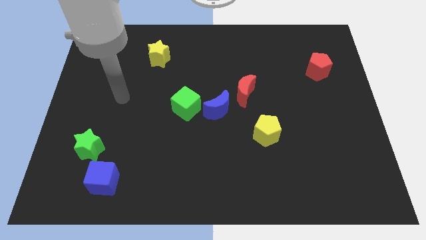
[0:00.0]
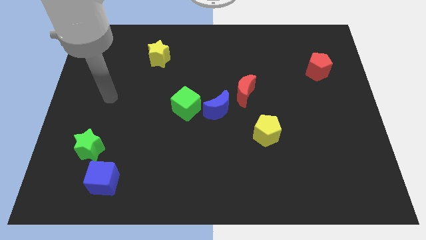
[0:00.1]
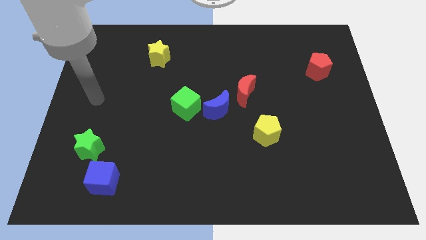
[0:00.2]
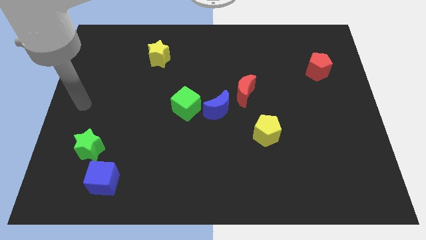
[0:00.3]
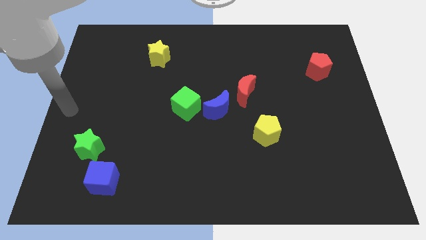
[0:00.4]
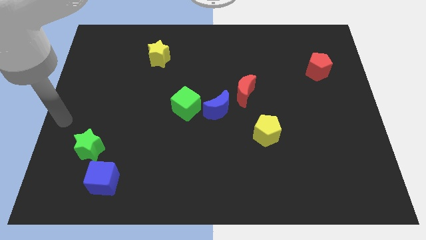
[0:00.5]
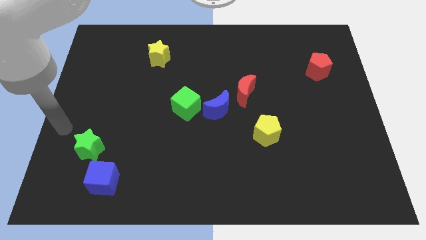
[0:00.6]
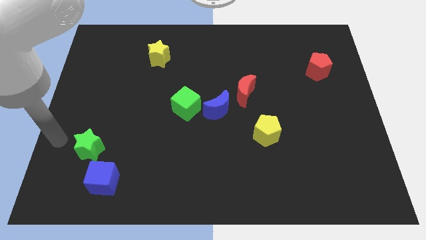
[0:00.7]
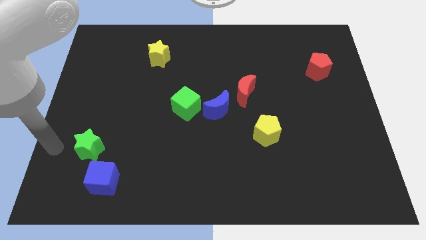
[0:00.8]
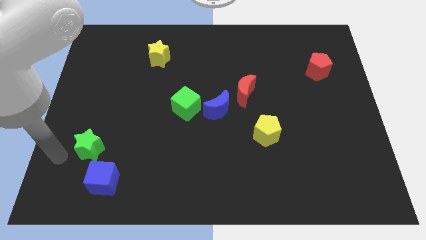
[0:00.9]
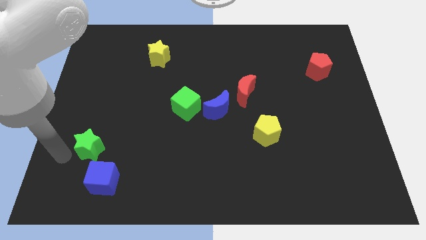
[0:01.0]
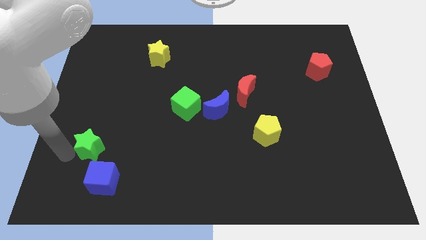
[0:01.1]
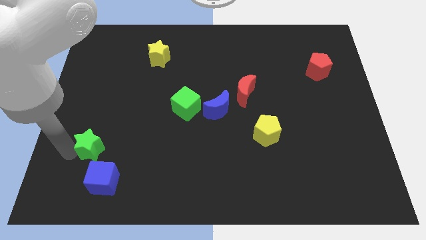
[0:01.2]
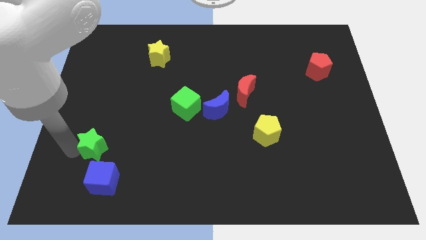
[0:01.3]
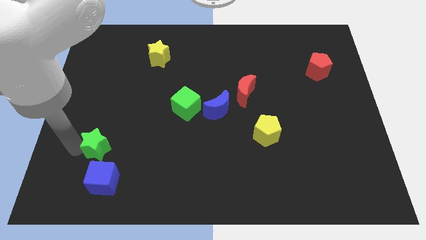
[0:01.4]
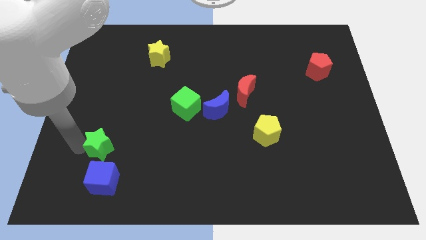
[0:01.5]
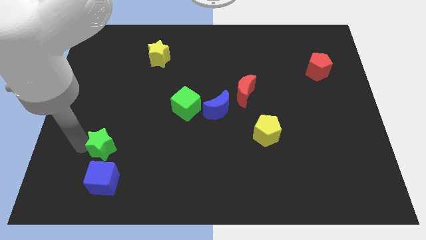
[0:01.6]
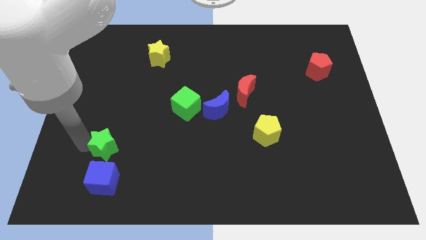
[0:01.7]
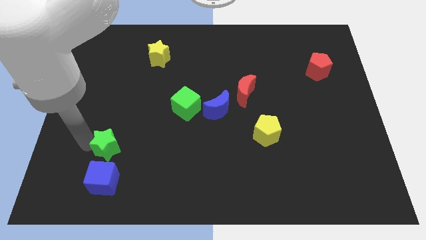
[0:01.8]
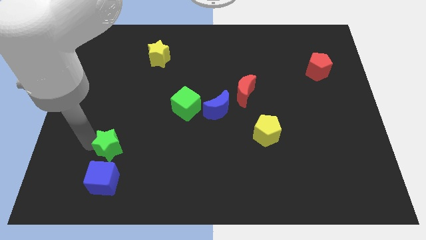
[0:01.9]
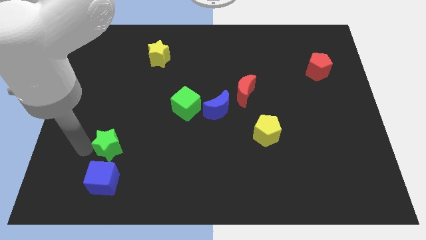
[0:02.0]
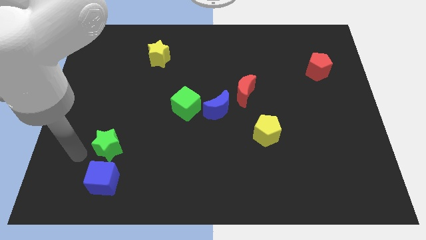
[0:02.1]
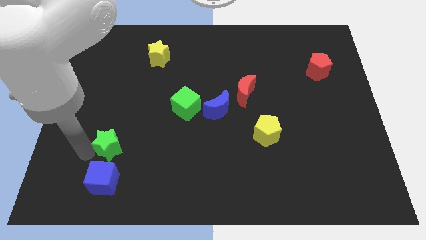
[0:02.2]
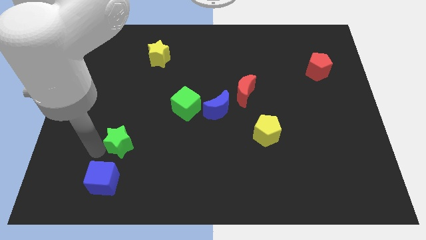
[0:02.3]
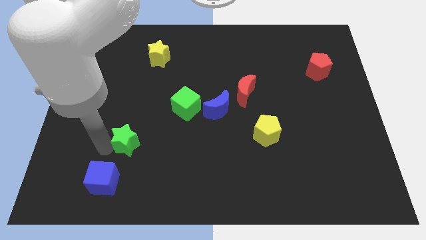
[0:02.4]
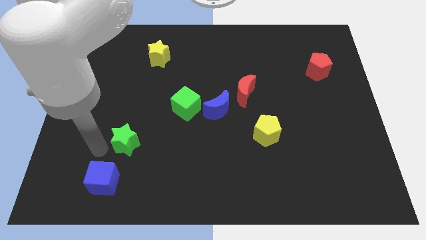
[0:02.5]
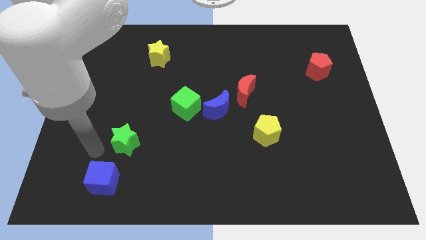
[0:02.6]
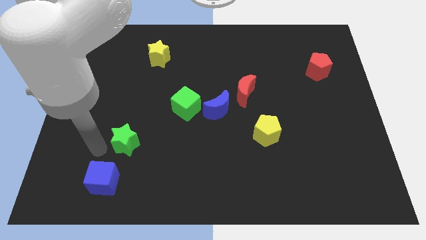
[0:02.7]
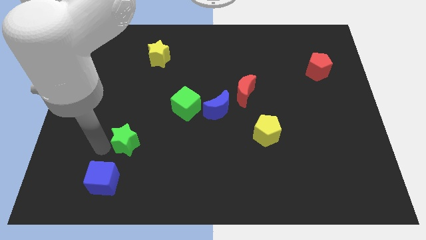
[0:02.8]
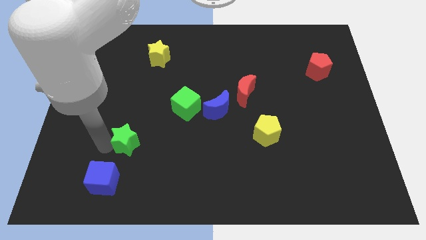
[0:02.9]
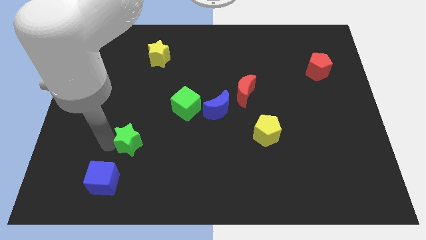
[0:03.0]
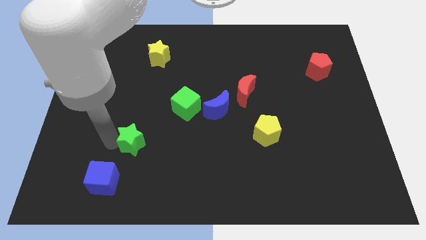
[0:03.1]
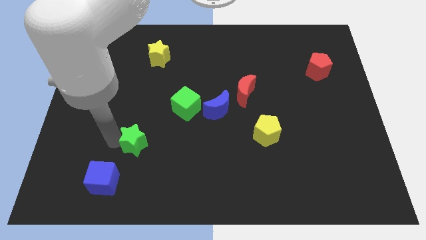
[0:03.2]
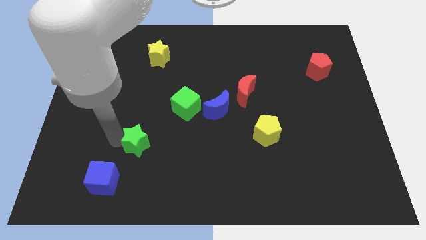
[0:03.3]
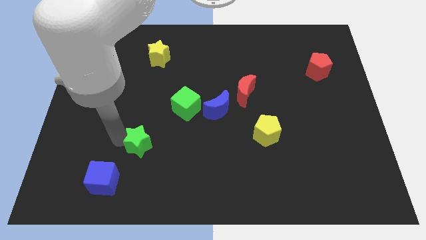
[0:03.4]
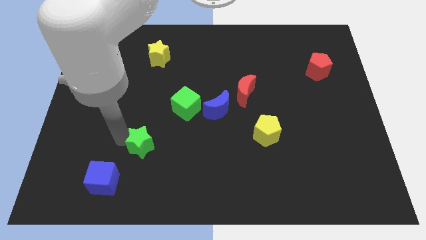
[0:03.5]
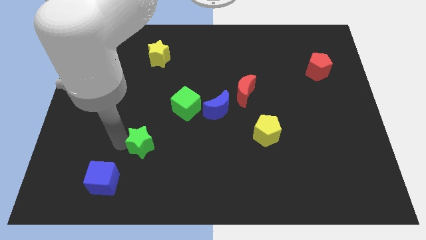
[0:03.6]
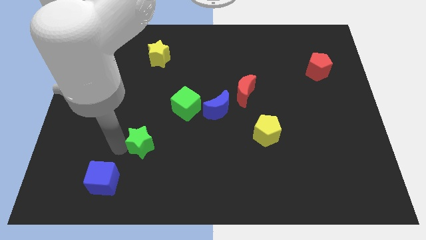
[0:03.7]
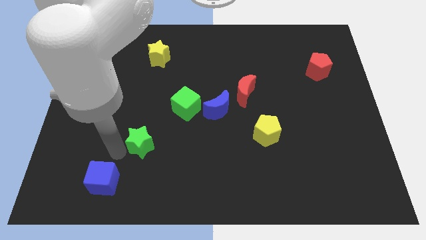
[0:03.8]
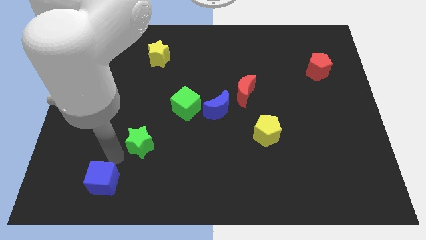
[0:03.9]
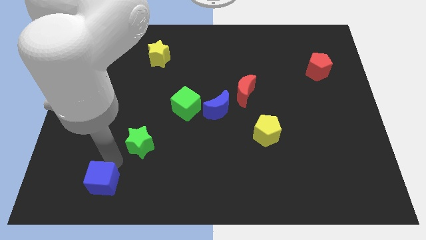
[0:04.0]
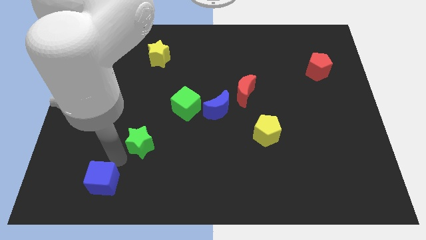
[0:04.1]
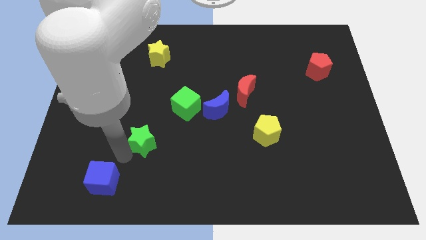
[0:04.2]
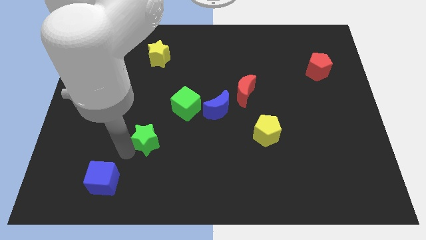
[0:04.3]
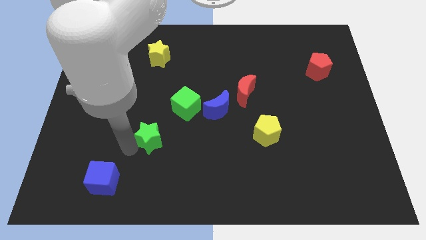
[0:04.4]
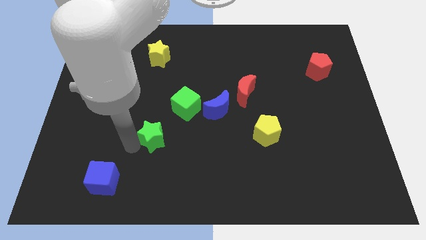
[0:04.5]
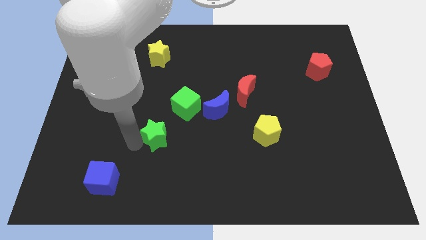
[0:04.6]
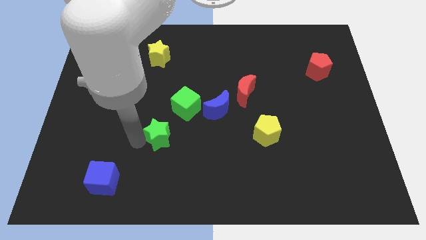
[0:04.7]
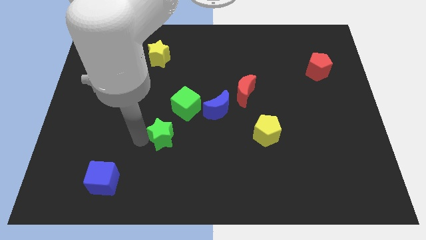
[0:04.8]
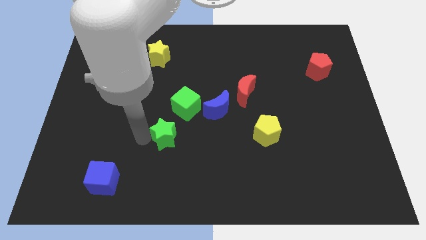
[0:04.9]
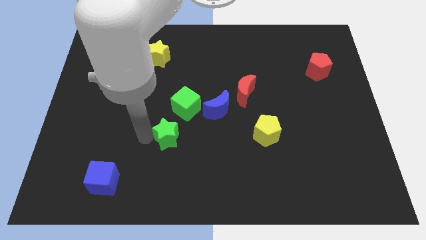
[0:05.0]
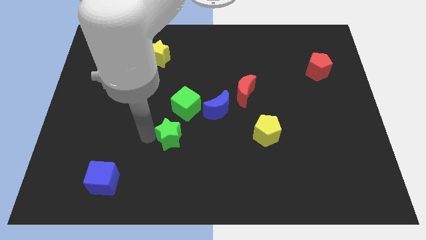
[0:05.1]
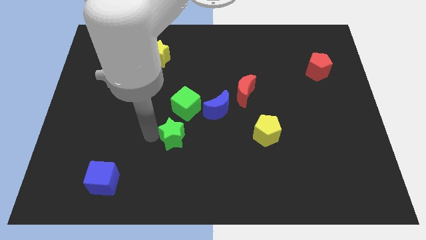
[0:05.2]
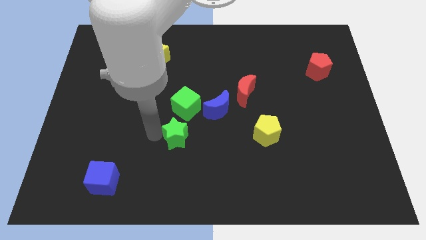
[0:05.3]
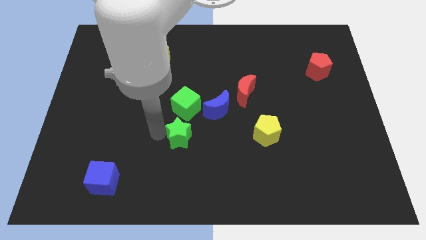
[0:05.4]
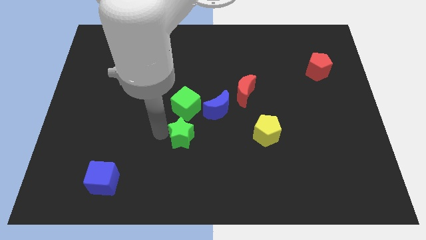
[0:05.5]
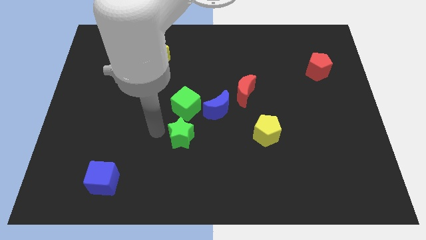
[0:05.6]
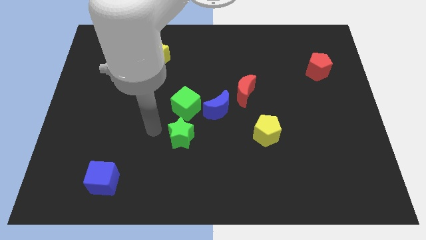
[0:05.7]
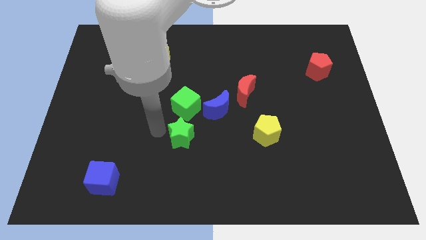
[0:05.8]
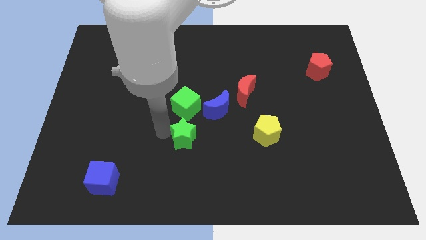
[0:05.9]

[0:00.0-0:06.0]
move the green star to the right

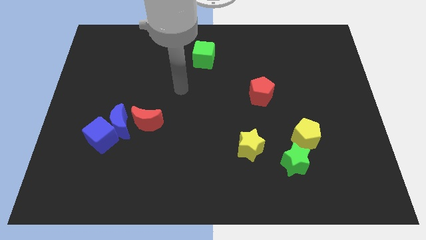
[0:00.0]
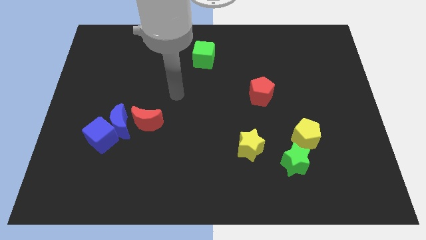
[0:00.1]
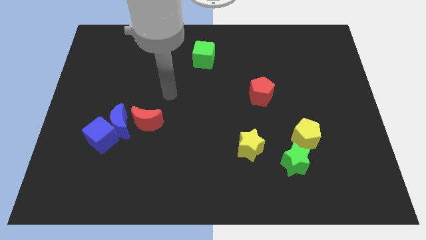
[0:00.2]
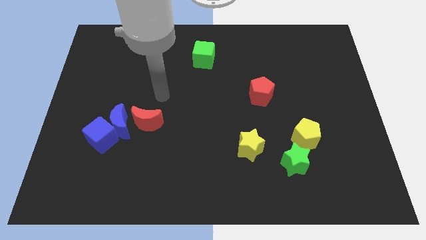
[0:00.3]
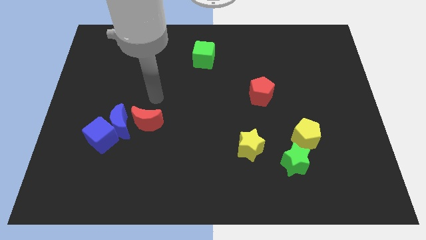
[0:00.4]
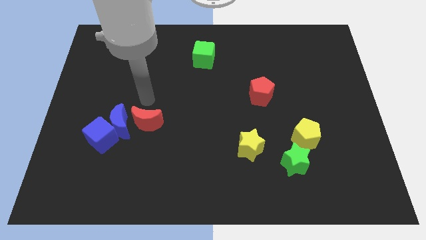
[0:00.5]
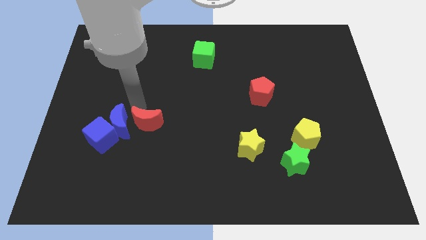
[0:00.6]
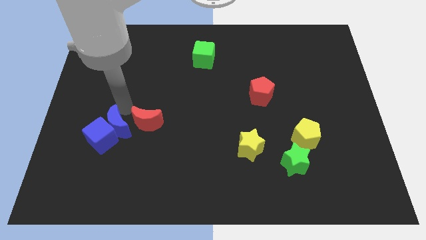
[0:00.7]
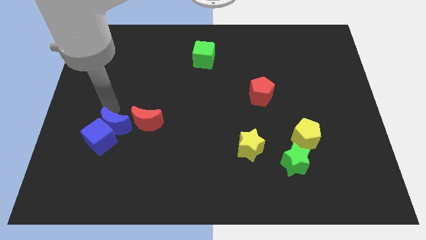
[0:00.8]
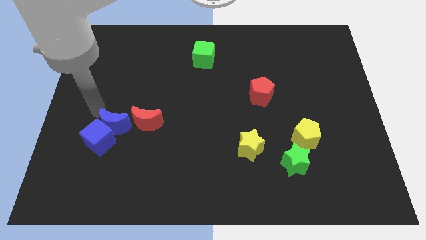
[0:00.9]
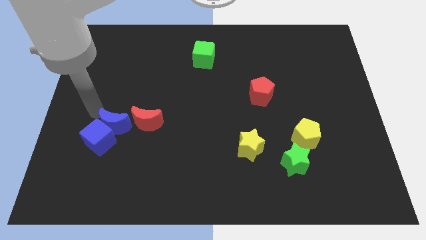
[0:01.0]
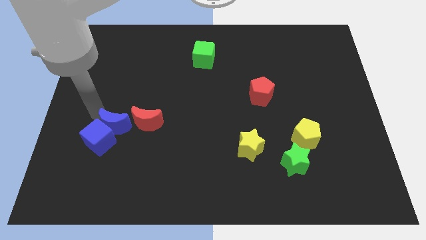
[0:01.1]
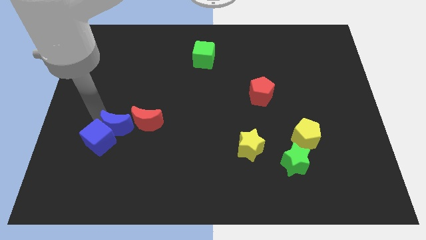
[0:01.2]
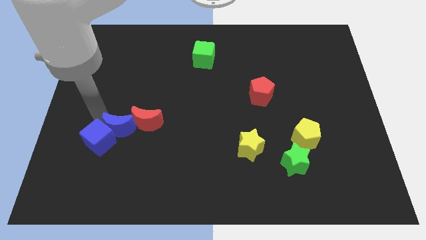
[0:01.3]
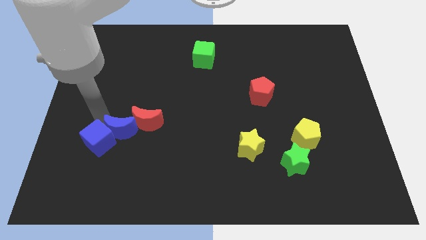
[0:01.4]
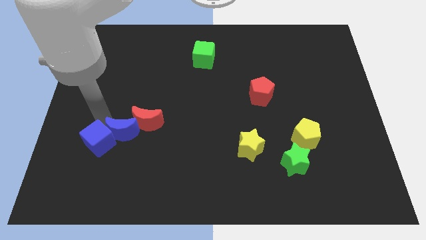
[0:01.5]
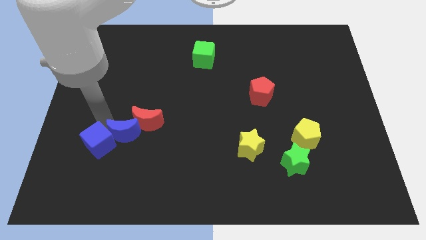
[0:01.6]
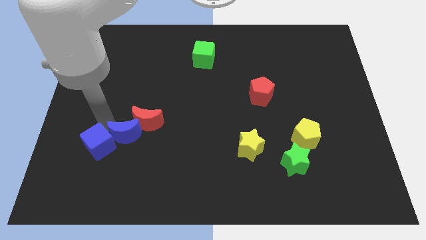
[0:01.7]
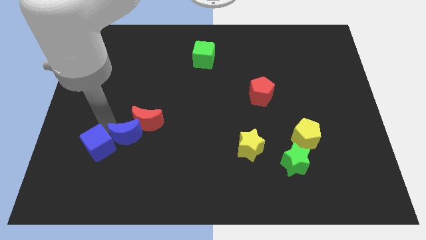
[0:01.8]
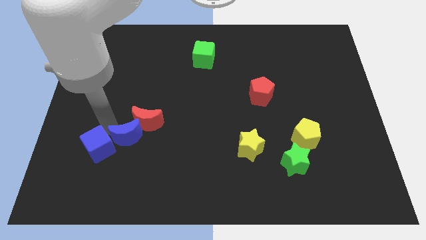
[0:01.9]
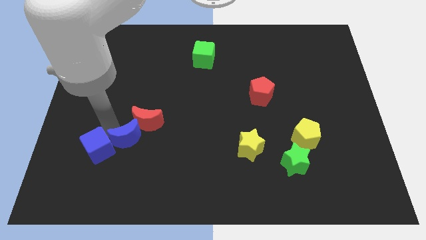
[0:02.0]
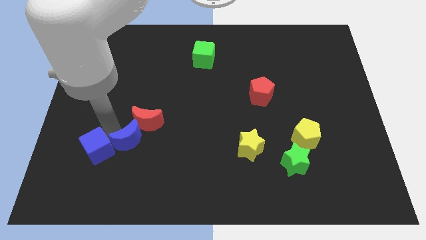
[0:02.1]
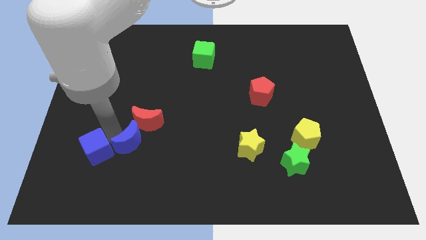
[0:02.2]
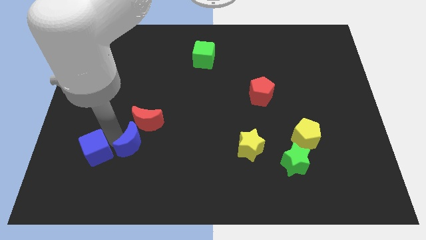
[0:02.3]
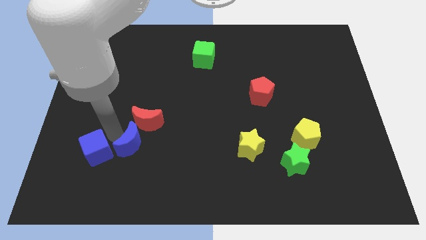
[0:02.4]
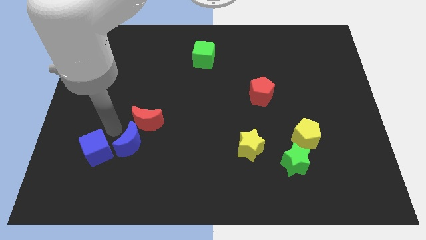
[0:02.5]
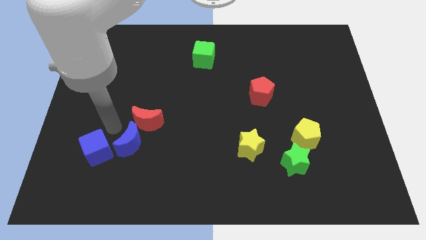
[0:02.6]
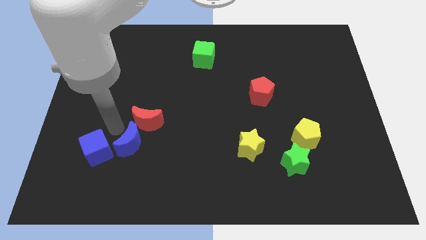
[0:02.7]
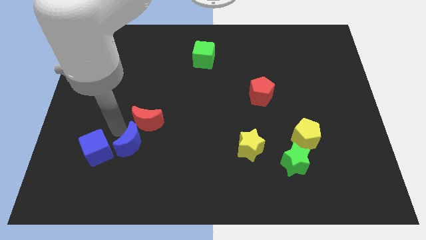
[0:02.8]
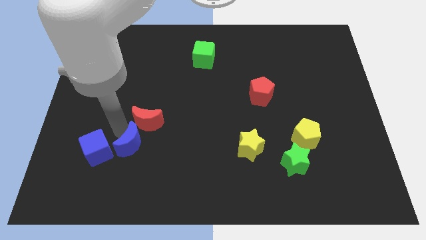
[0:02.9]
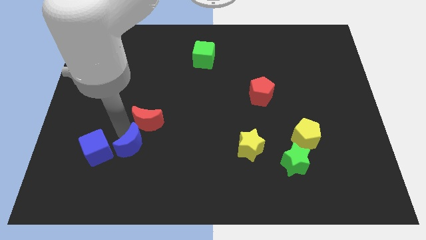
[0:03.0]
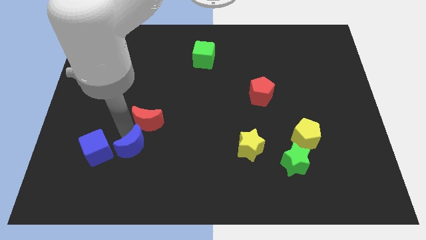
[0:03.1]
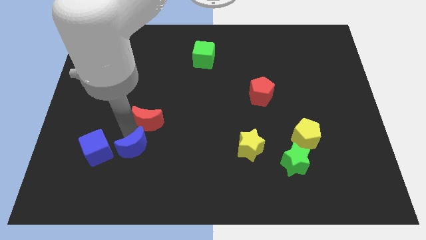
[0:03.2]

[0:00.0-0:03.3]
push the blue moon slightly downwards and right
